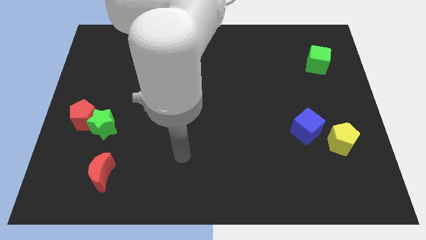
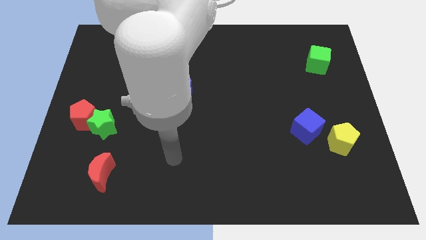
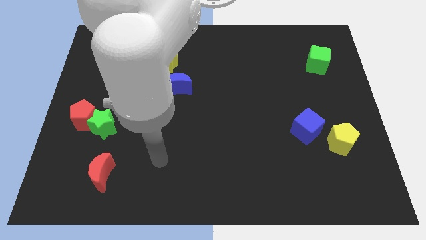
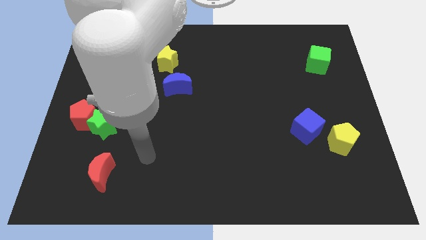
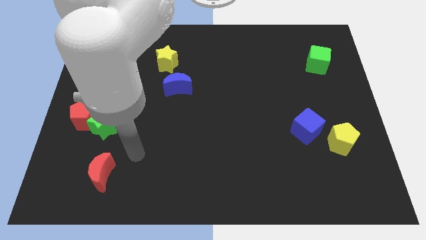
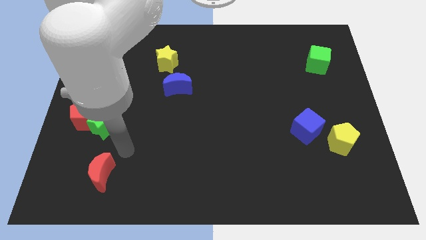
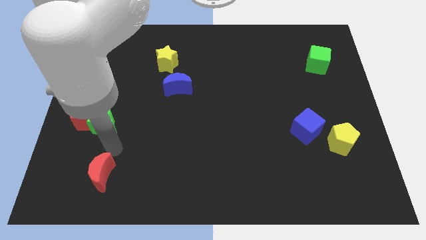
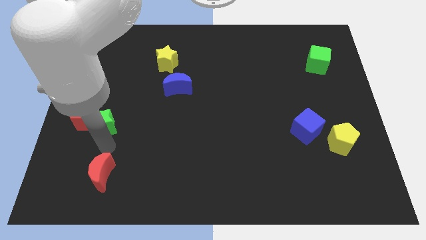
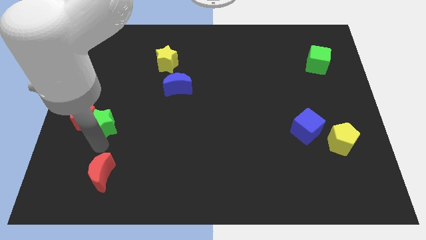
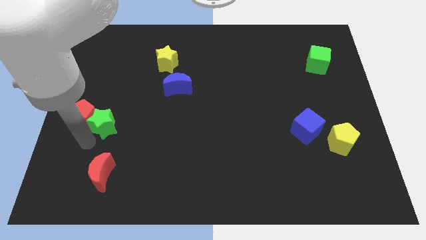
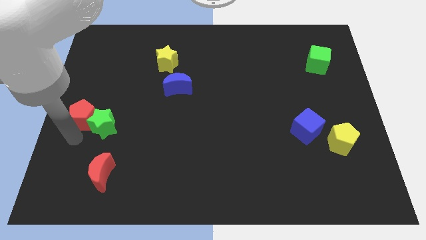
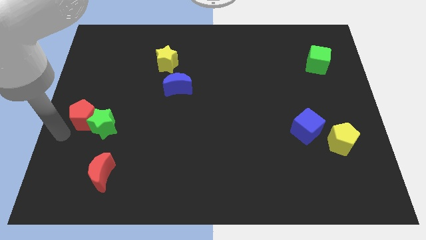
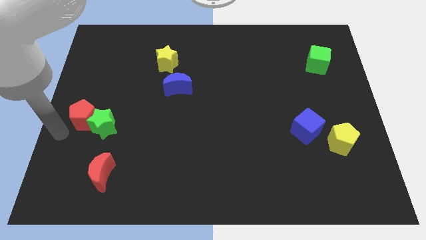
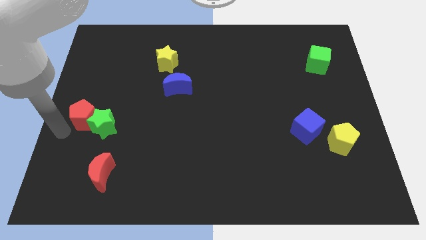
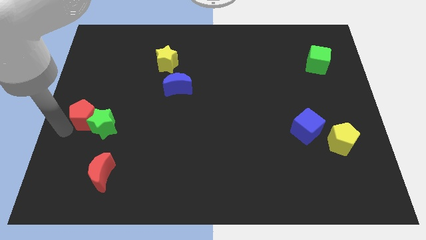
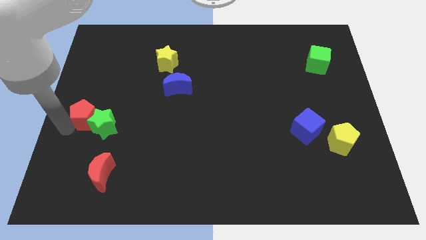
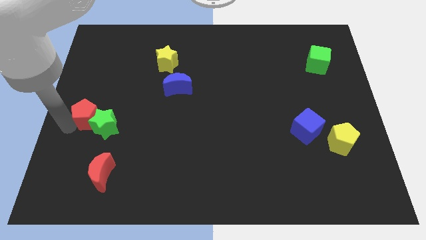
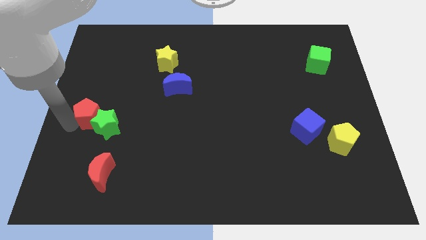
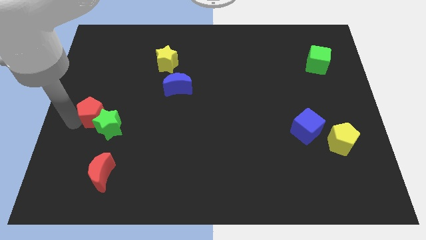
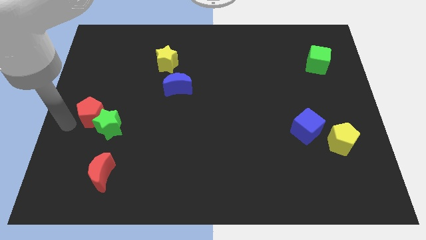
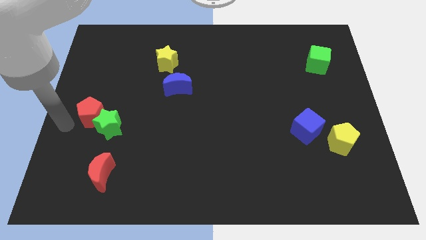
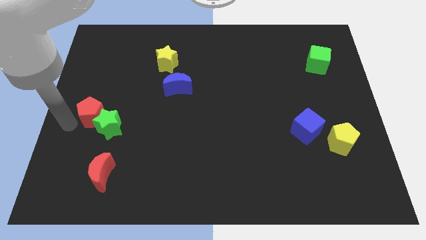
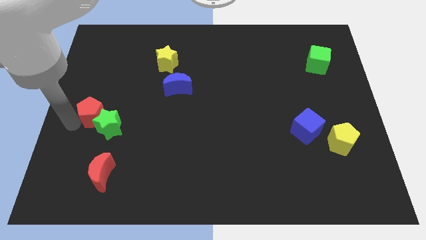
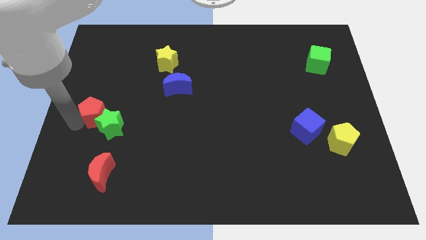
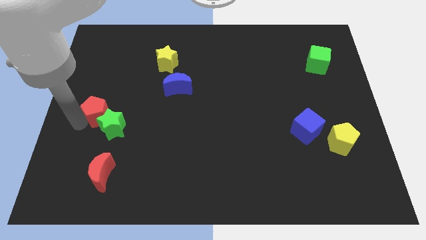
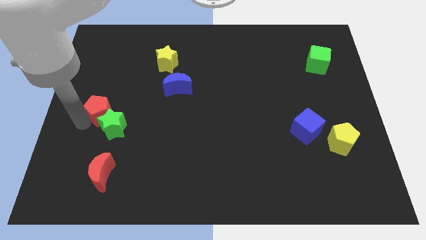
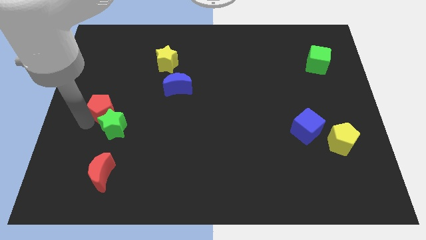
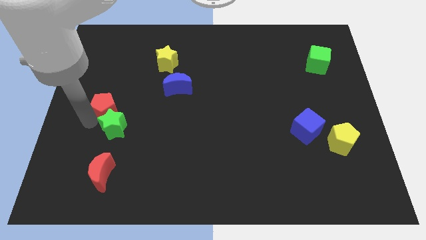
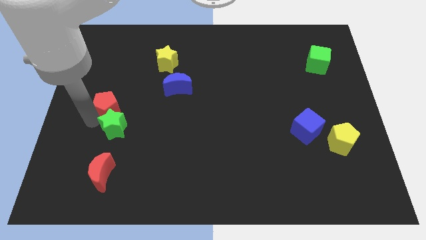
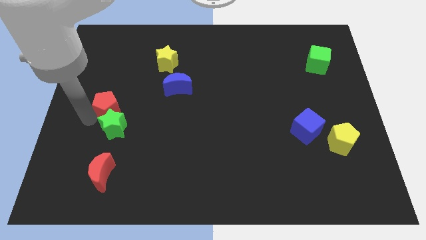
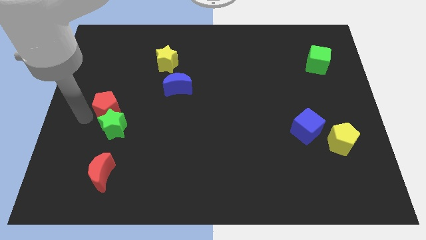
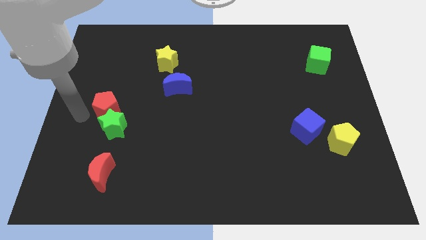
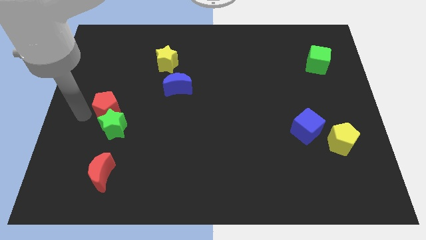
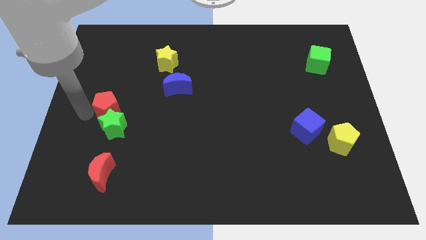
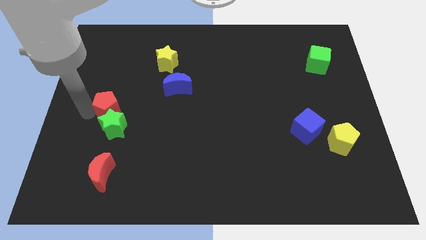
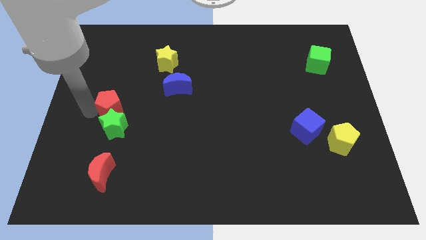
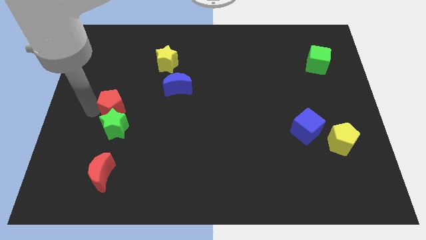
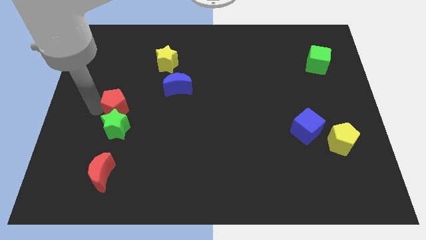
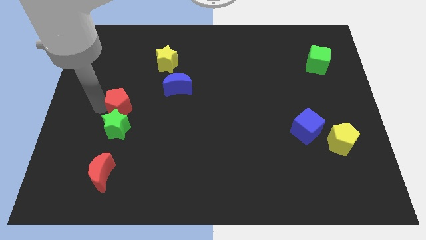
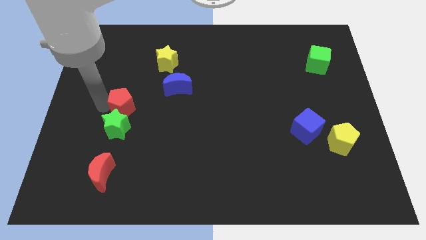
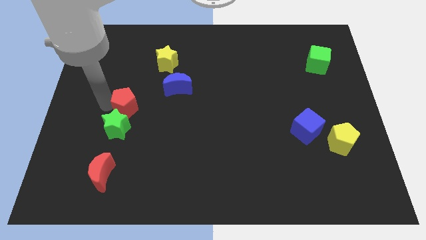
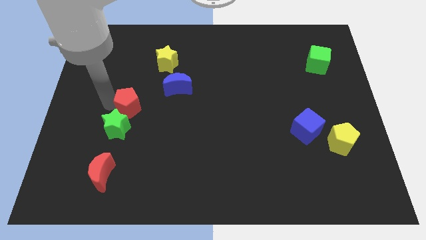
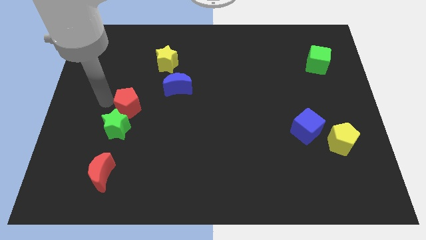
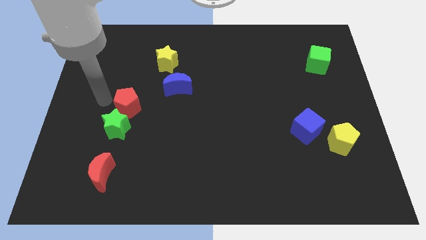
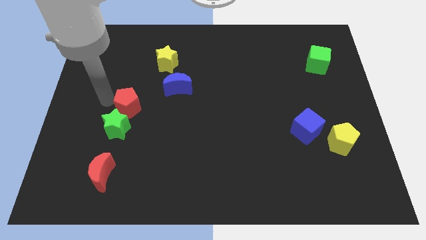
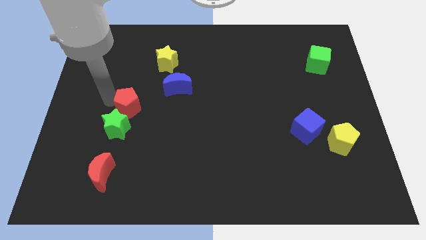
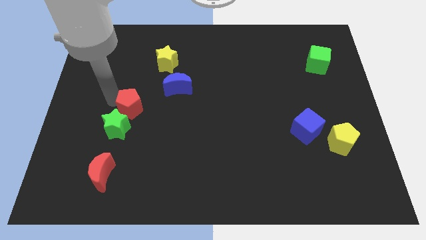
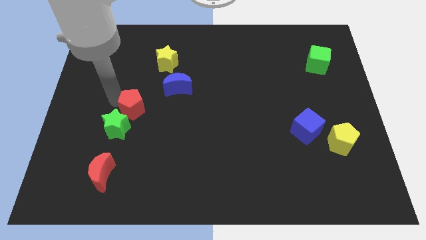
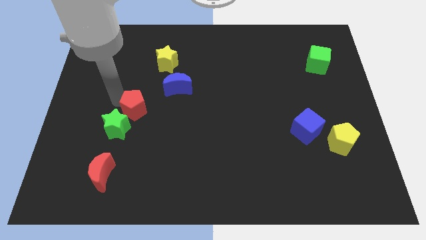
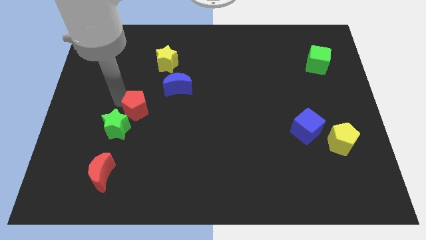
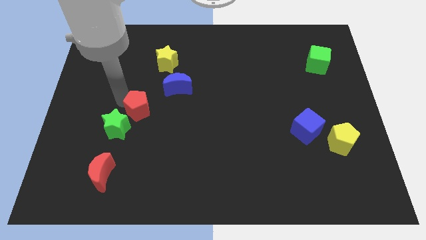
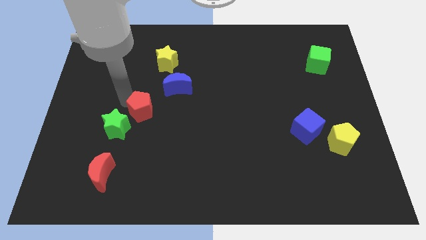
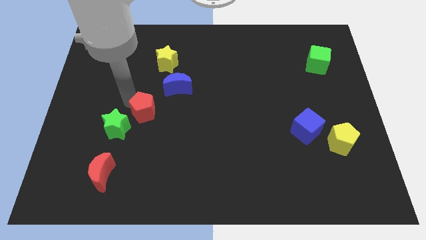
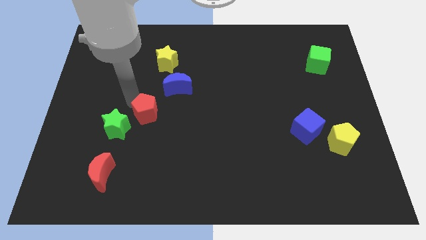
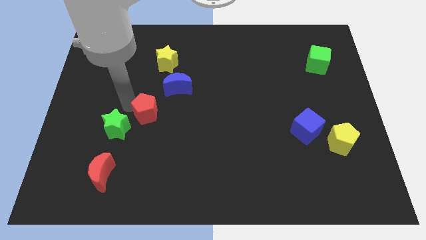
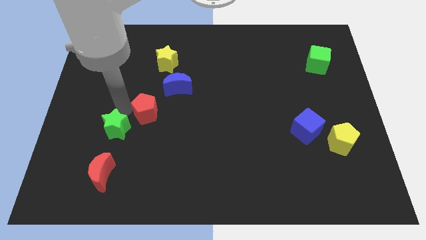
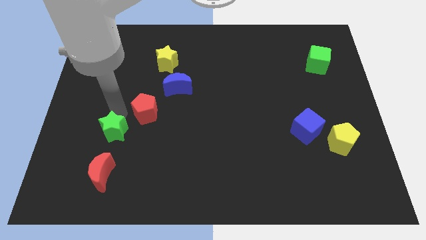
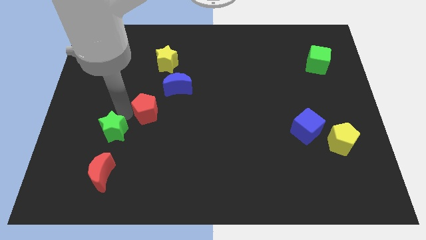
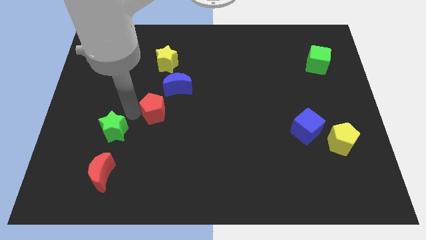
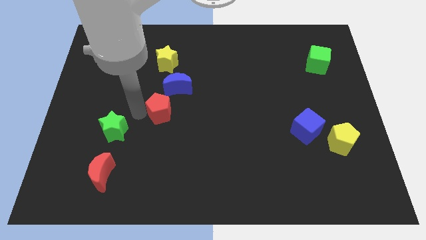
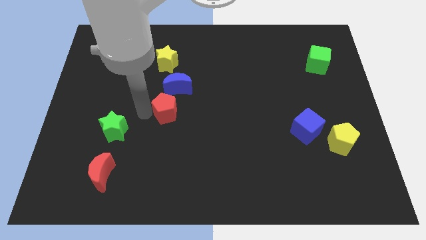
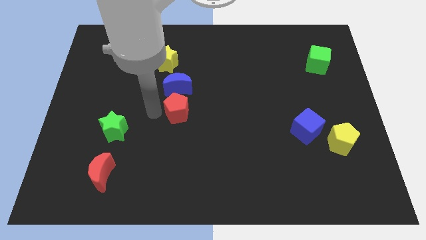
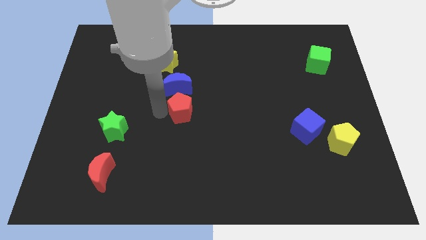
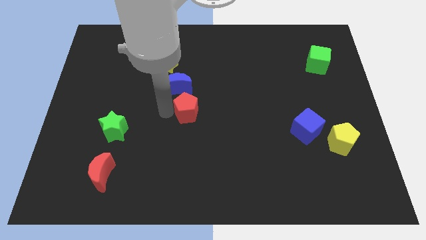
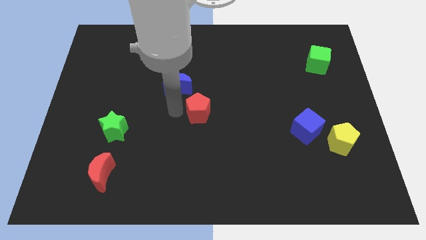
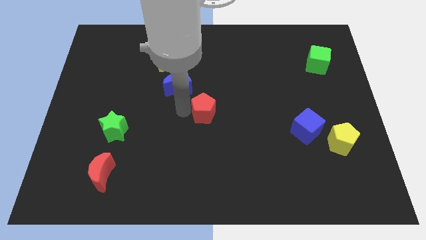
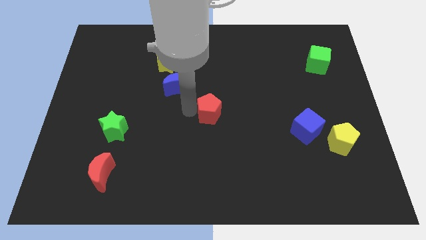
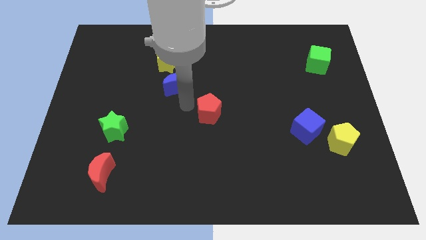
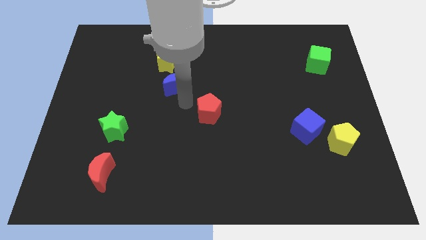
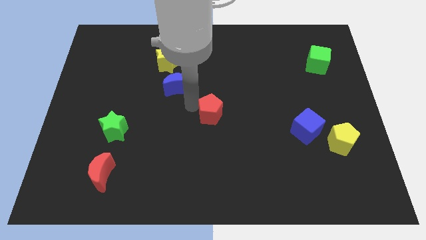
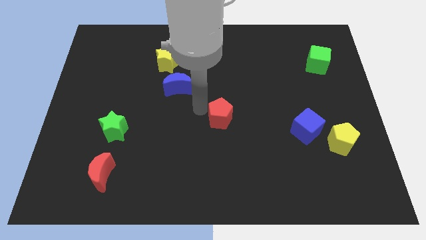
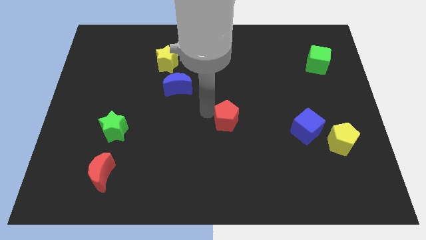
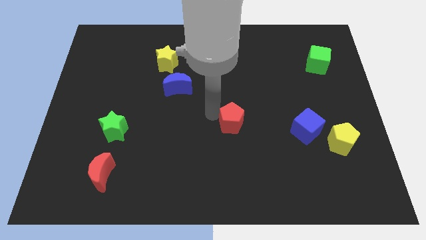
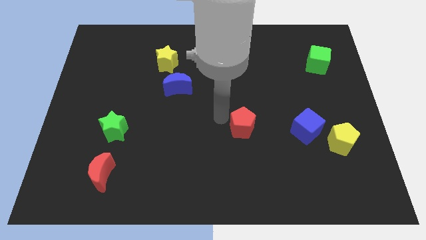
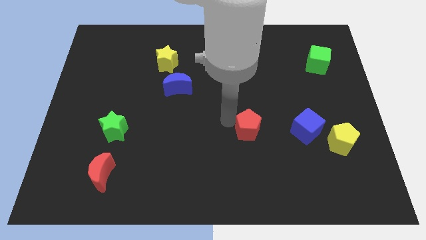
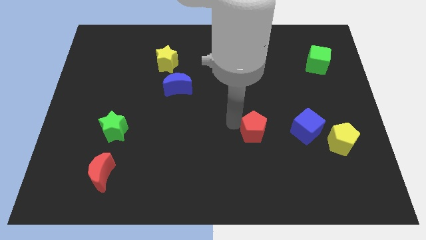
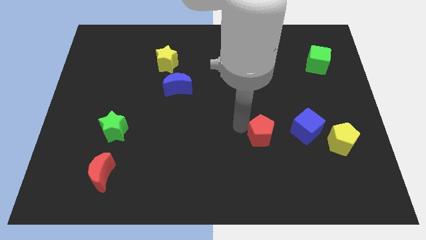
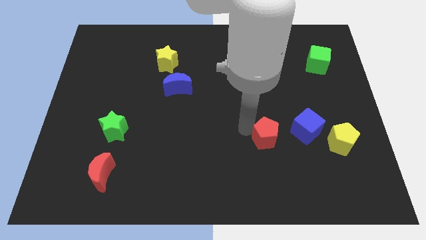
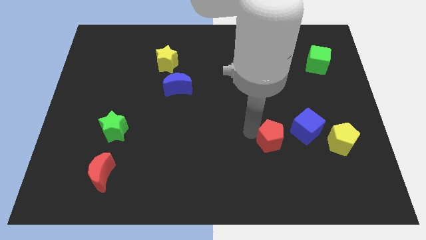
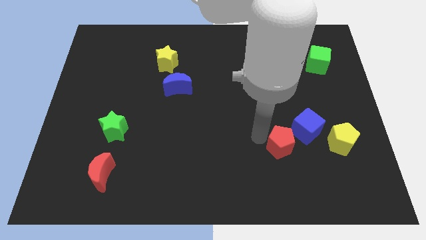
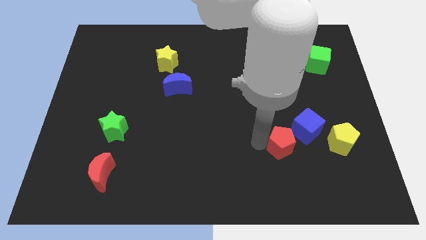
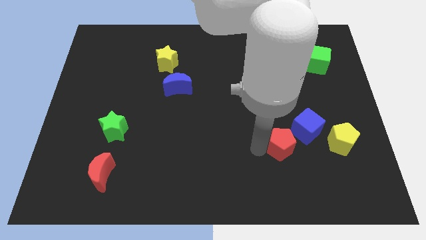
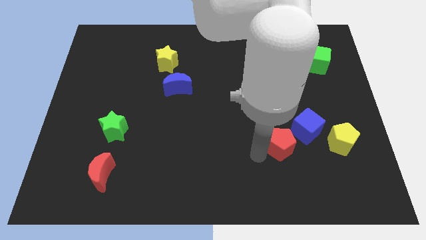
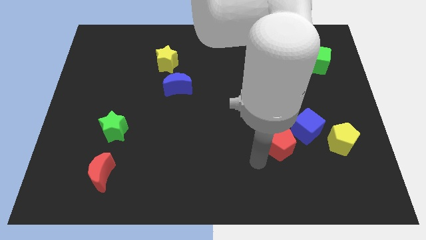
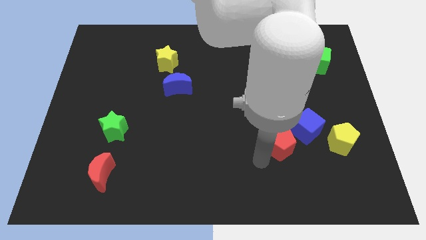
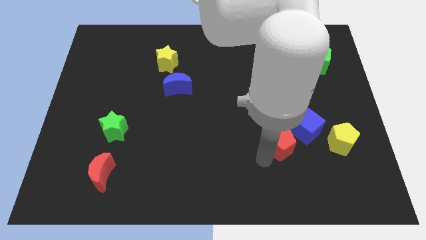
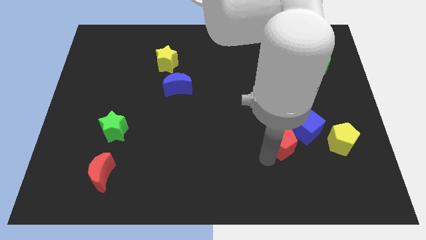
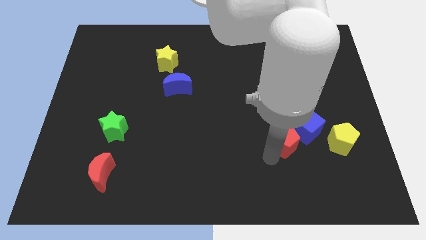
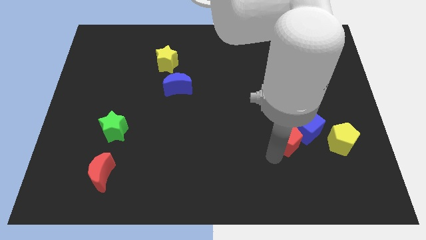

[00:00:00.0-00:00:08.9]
push the red pentagon next to the blue cube
